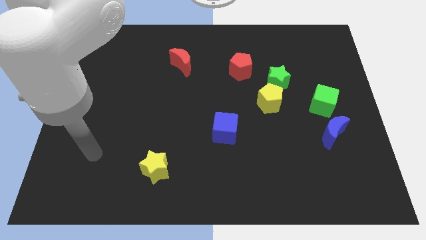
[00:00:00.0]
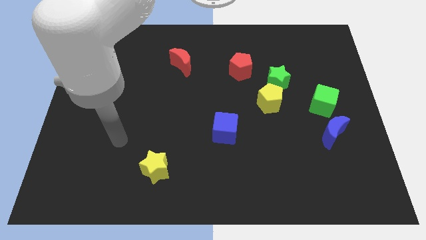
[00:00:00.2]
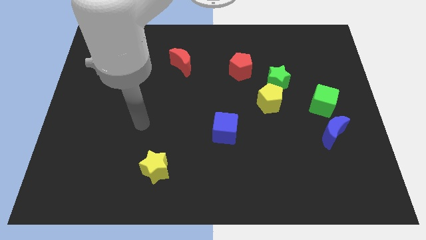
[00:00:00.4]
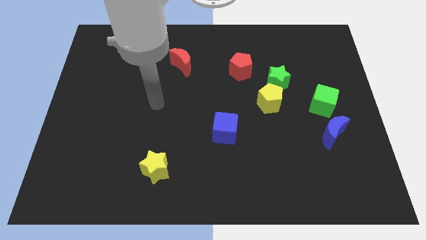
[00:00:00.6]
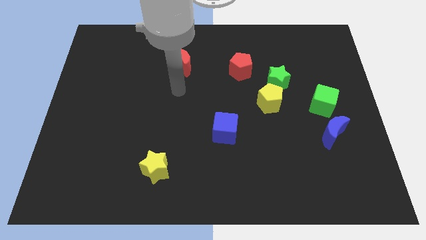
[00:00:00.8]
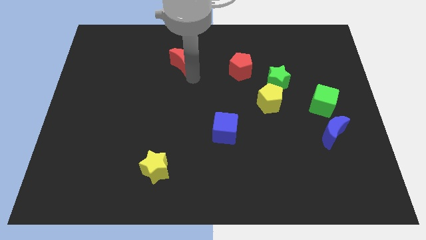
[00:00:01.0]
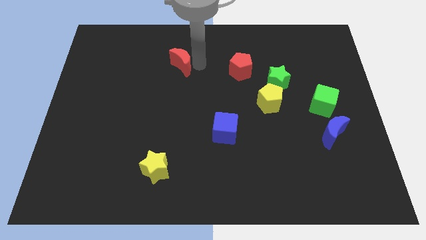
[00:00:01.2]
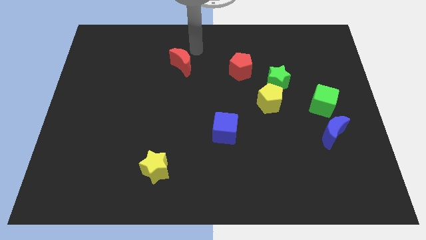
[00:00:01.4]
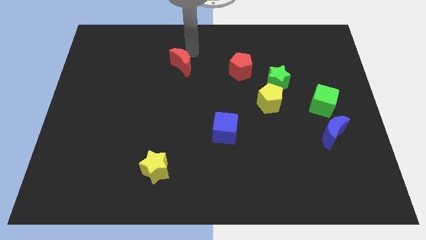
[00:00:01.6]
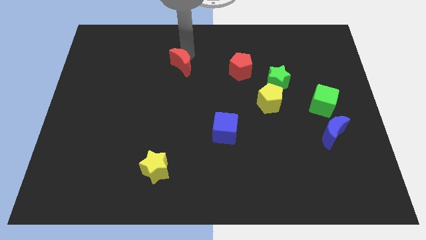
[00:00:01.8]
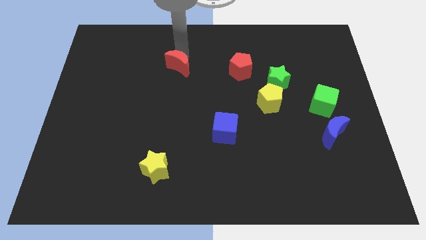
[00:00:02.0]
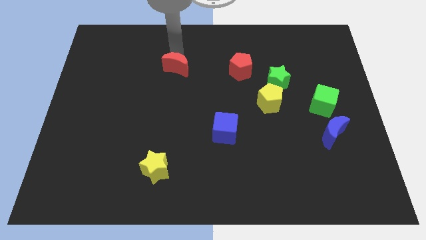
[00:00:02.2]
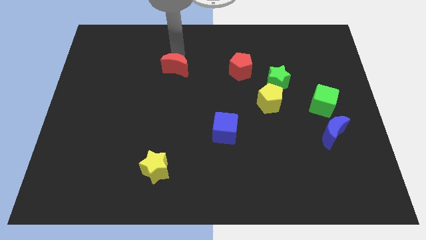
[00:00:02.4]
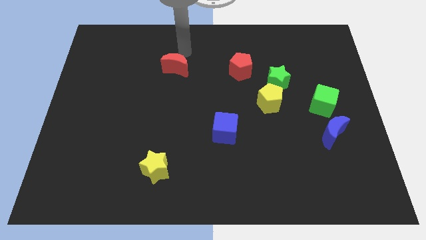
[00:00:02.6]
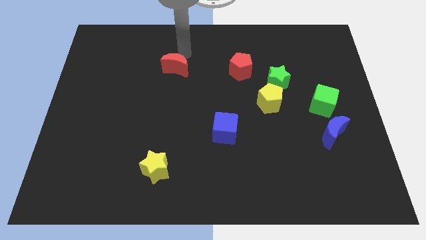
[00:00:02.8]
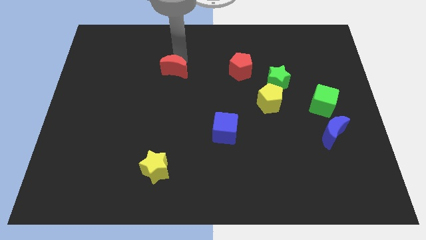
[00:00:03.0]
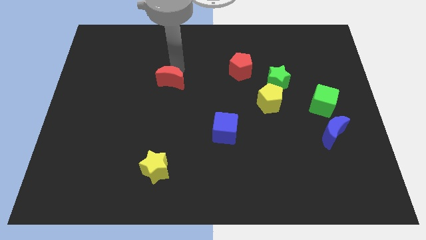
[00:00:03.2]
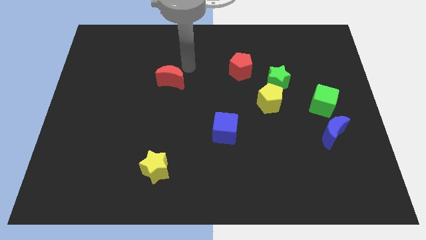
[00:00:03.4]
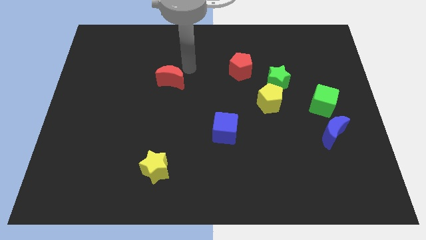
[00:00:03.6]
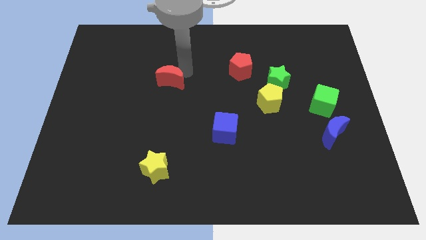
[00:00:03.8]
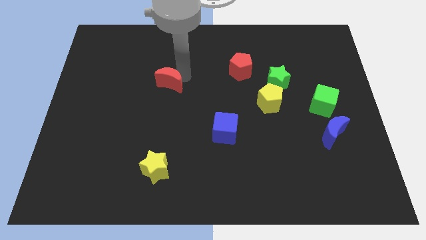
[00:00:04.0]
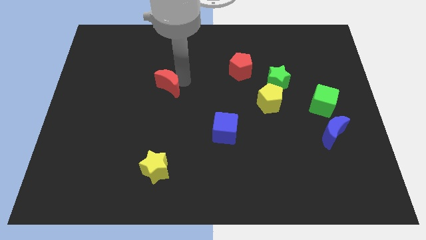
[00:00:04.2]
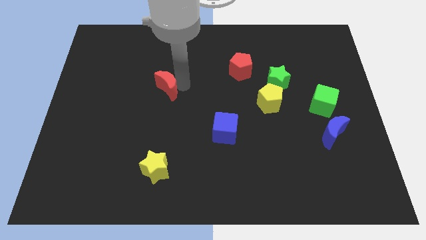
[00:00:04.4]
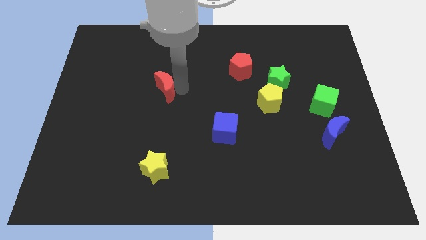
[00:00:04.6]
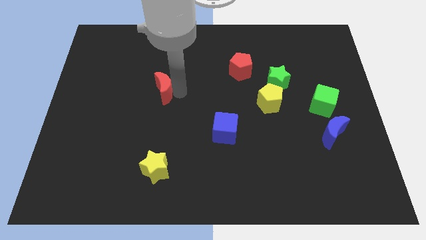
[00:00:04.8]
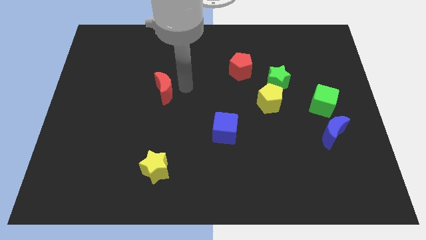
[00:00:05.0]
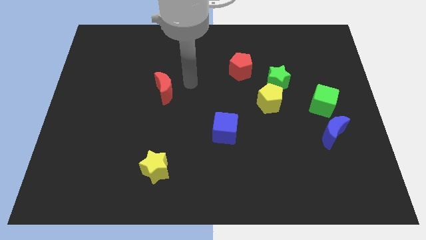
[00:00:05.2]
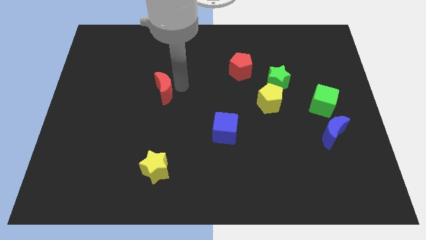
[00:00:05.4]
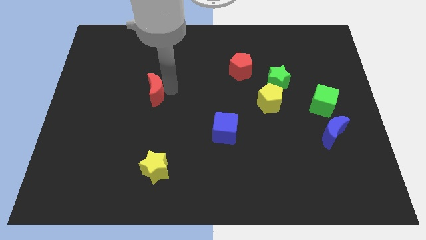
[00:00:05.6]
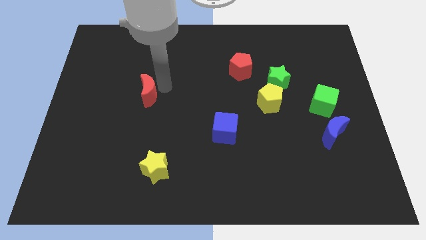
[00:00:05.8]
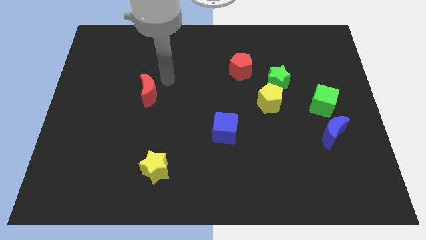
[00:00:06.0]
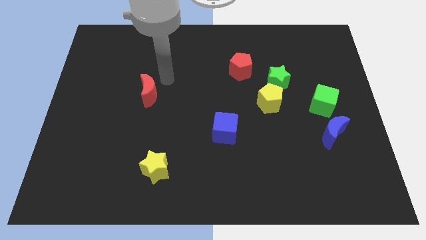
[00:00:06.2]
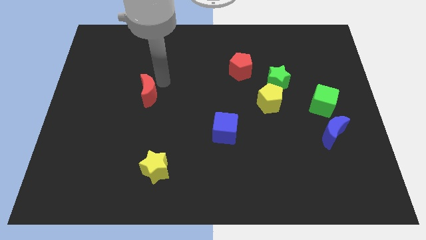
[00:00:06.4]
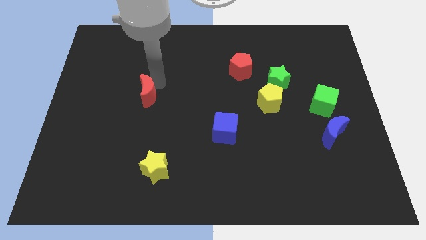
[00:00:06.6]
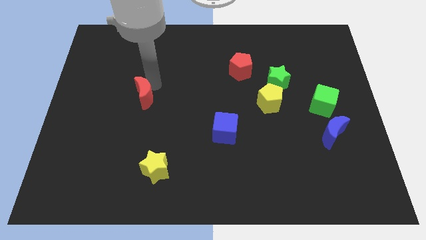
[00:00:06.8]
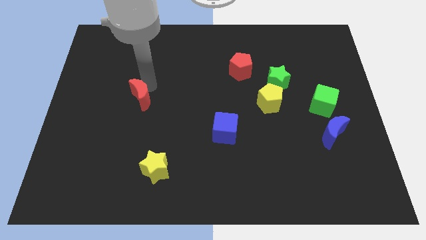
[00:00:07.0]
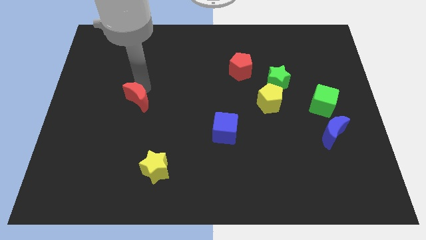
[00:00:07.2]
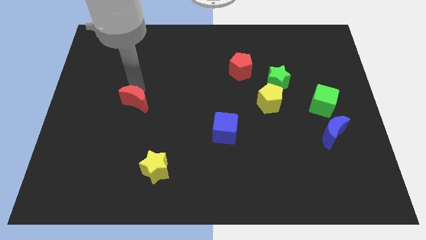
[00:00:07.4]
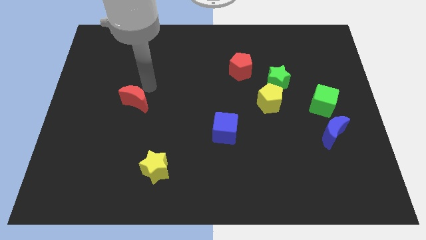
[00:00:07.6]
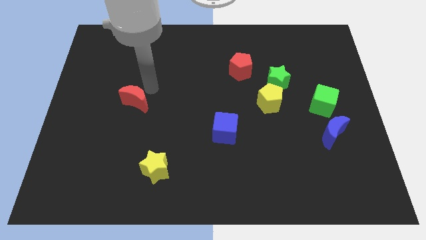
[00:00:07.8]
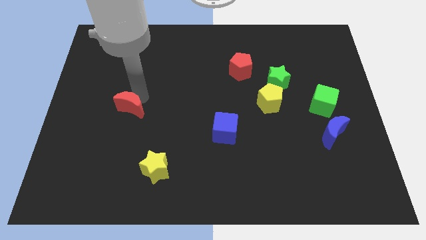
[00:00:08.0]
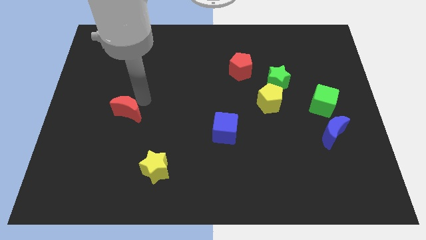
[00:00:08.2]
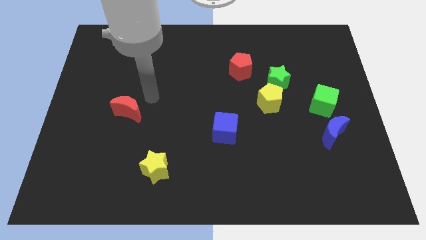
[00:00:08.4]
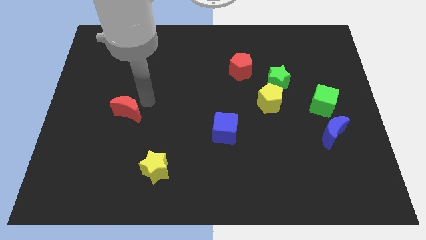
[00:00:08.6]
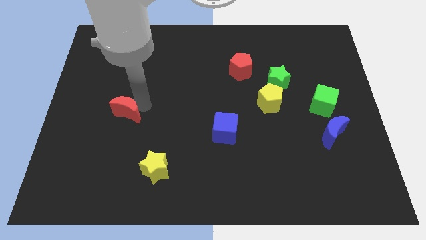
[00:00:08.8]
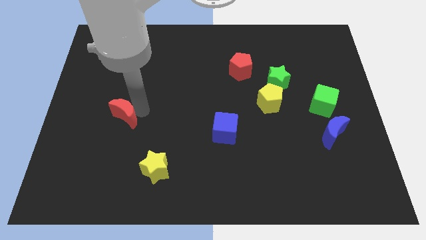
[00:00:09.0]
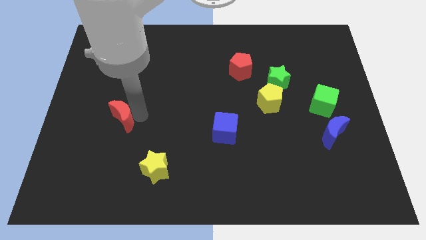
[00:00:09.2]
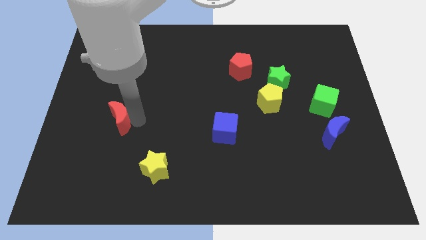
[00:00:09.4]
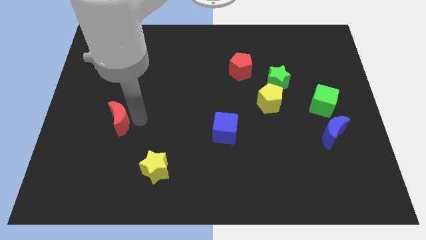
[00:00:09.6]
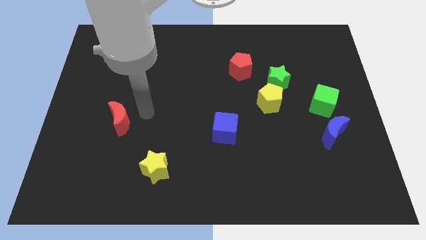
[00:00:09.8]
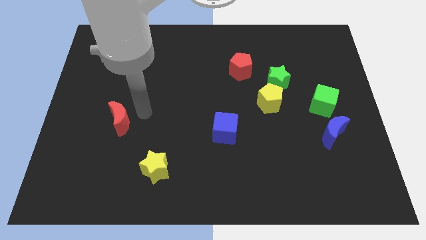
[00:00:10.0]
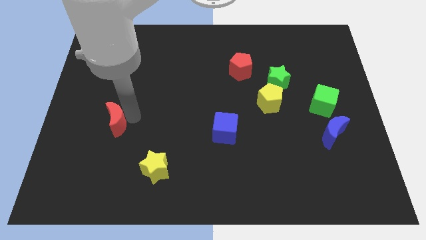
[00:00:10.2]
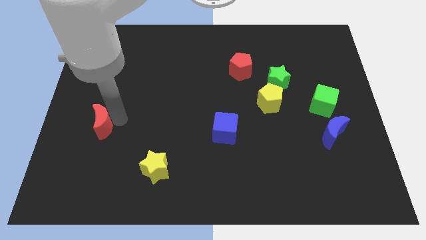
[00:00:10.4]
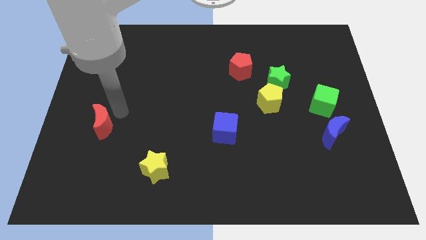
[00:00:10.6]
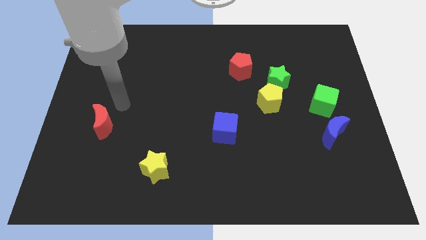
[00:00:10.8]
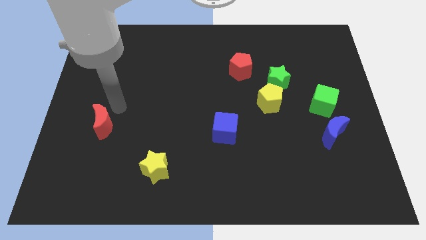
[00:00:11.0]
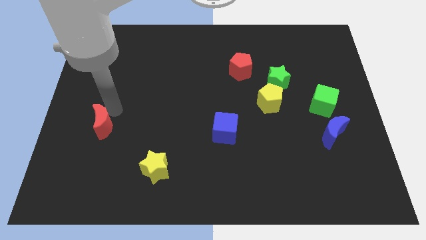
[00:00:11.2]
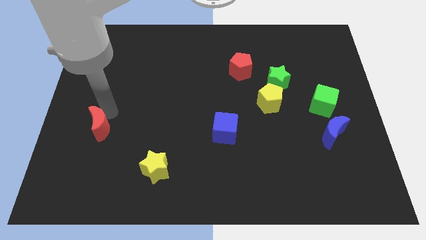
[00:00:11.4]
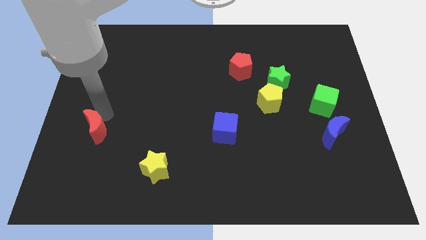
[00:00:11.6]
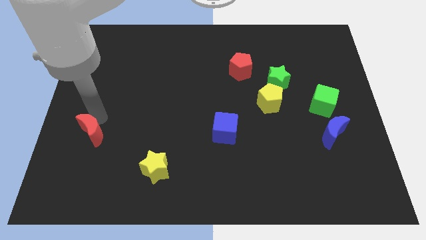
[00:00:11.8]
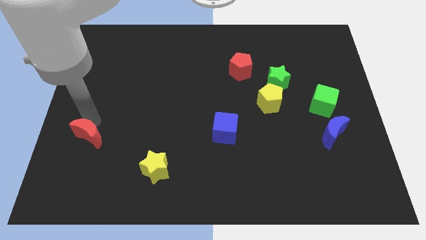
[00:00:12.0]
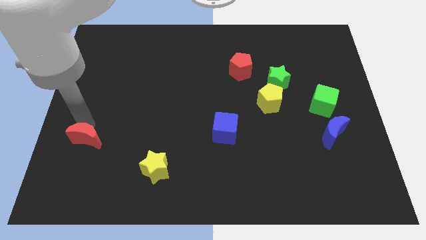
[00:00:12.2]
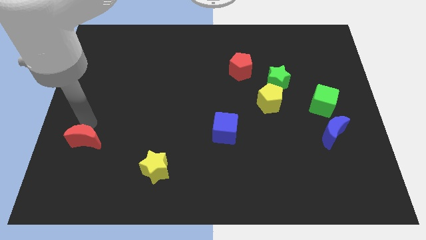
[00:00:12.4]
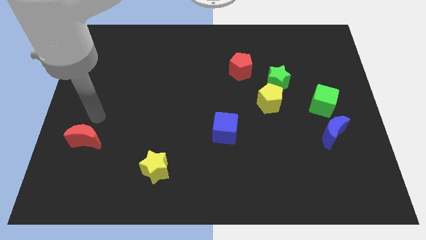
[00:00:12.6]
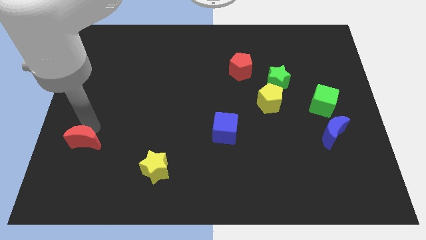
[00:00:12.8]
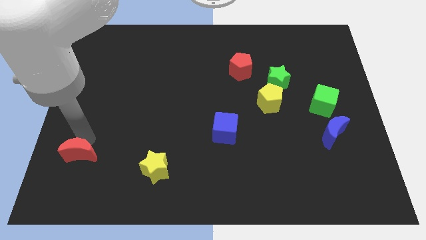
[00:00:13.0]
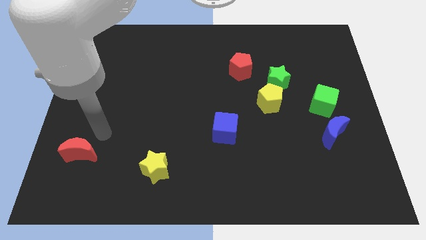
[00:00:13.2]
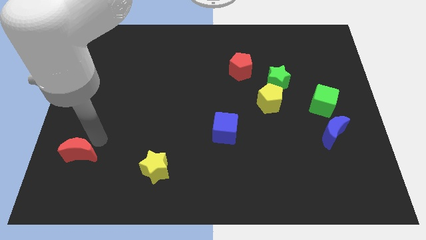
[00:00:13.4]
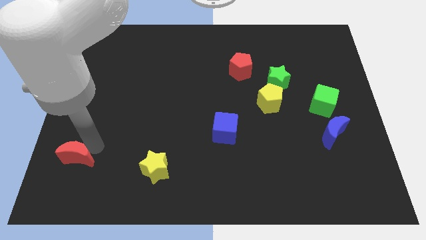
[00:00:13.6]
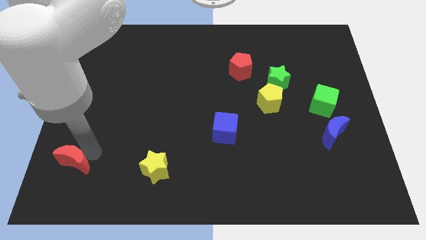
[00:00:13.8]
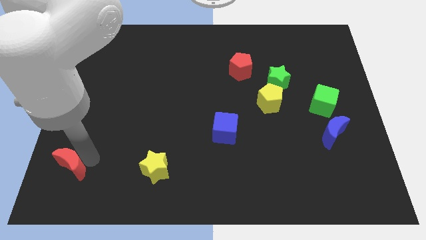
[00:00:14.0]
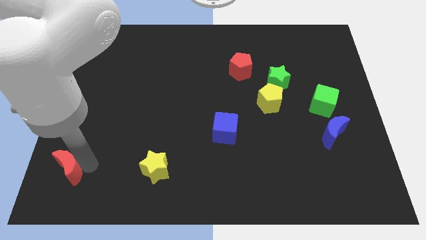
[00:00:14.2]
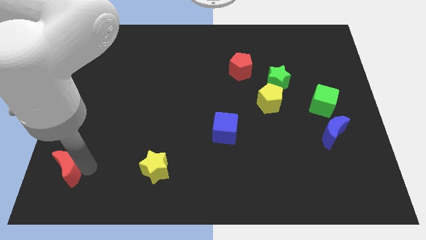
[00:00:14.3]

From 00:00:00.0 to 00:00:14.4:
move the red moon to the lower left corner
